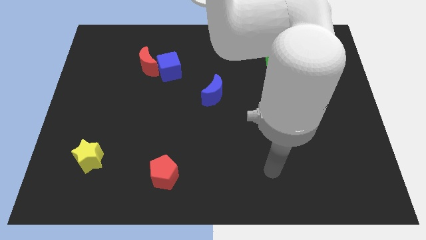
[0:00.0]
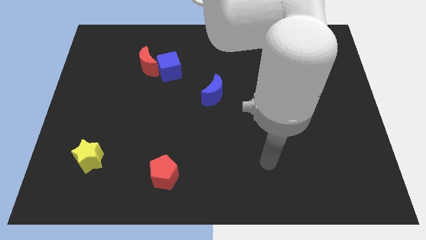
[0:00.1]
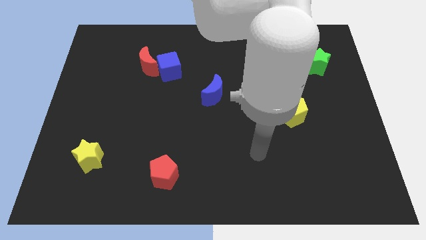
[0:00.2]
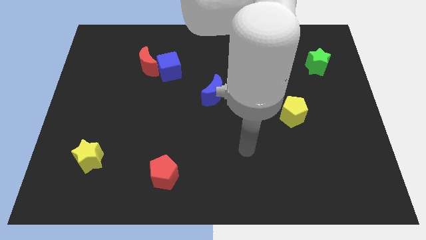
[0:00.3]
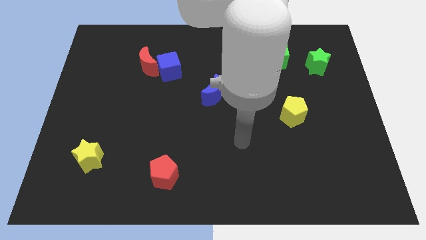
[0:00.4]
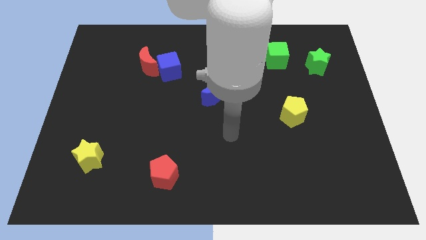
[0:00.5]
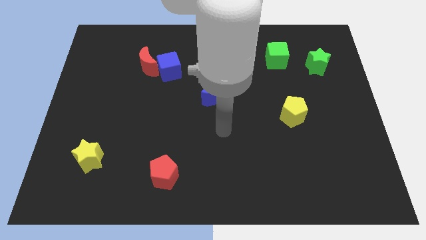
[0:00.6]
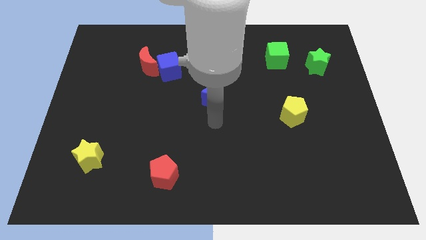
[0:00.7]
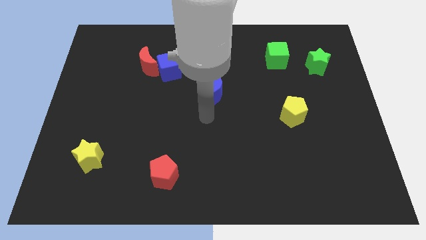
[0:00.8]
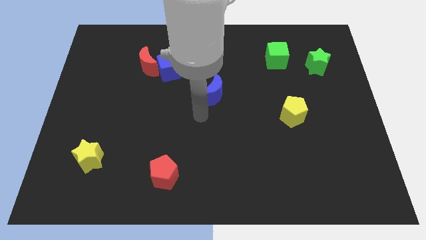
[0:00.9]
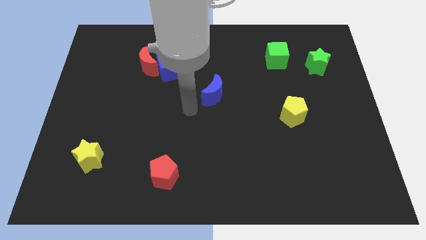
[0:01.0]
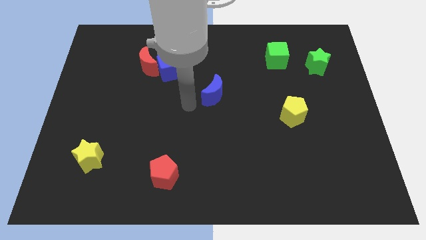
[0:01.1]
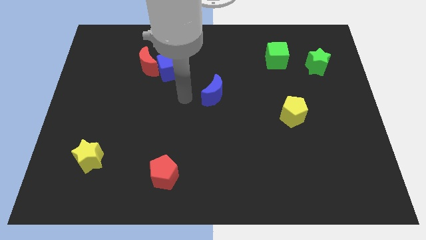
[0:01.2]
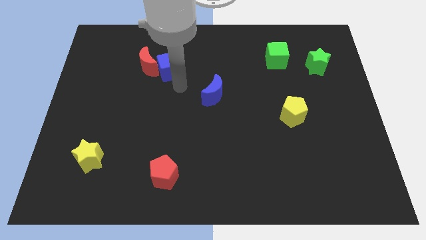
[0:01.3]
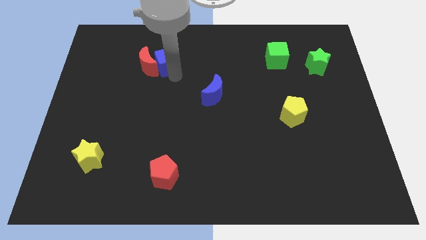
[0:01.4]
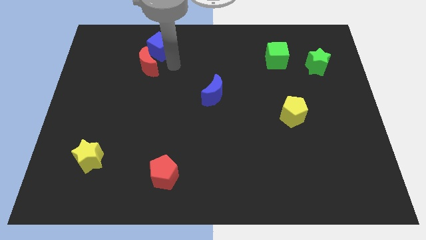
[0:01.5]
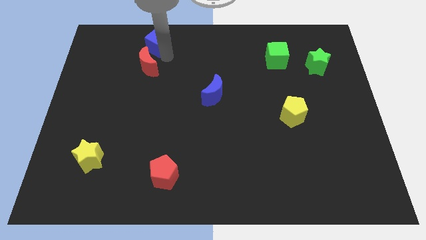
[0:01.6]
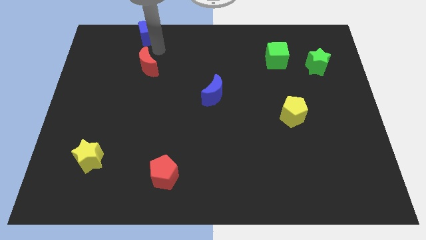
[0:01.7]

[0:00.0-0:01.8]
move the red moon away from the blue cube

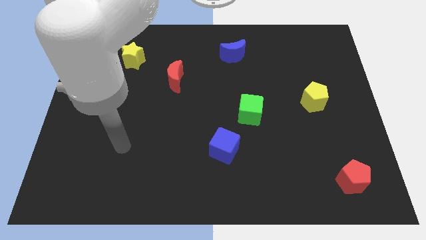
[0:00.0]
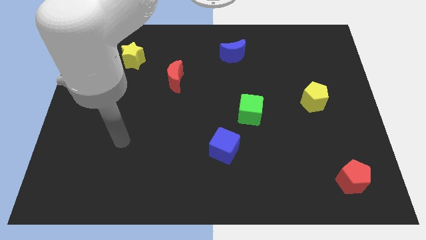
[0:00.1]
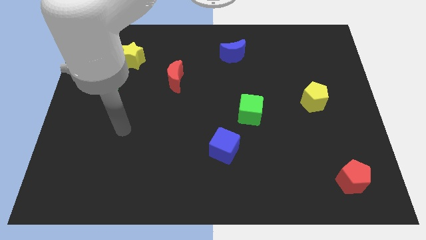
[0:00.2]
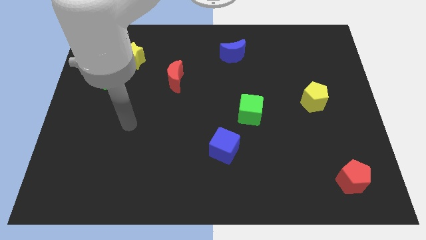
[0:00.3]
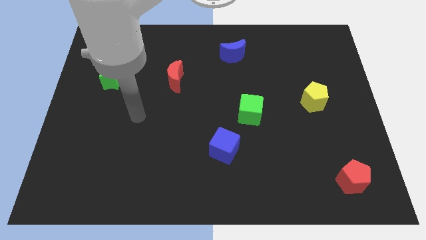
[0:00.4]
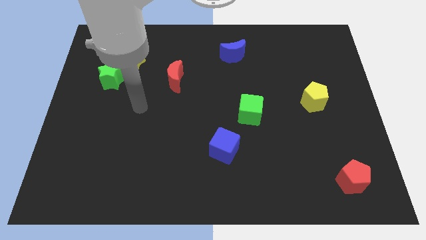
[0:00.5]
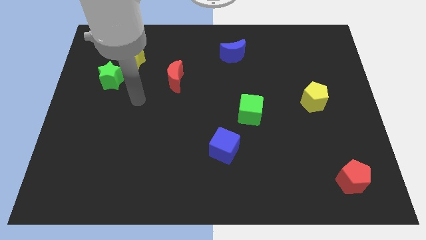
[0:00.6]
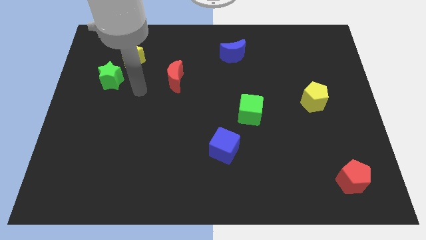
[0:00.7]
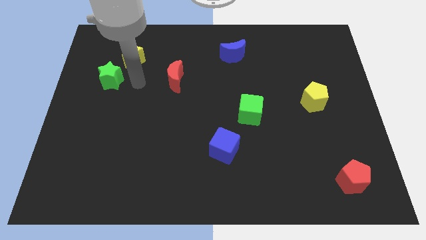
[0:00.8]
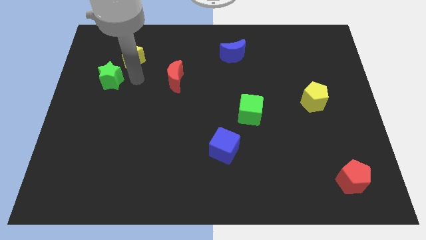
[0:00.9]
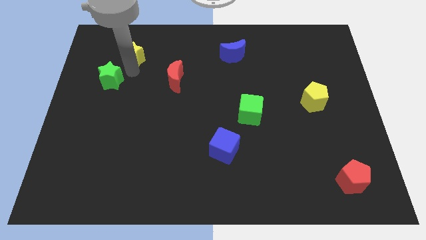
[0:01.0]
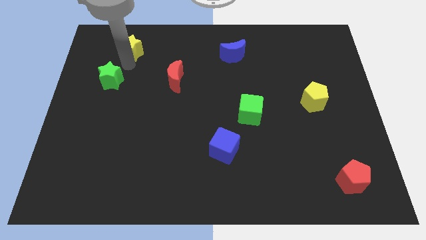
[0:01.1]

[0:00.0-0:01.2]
move the green star away from the yellow star

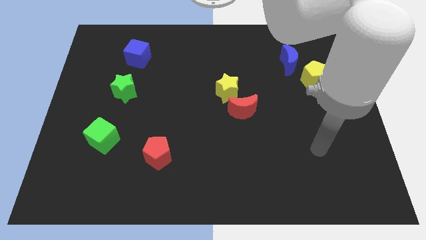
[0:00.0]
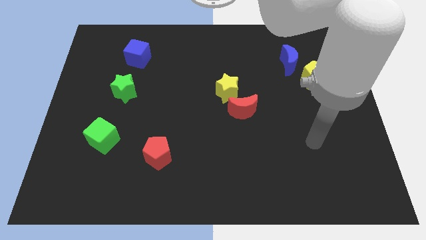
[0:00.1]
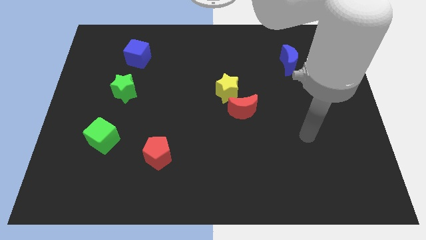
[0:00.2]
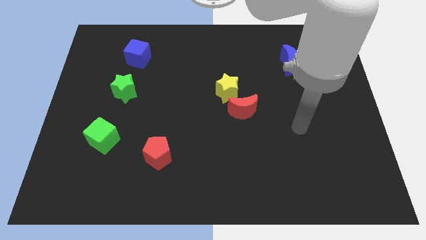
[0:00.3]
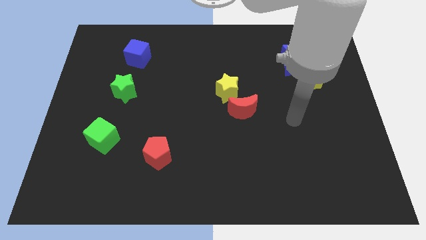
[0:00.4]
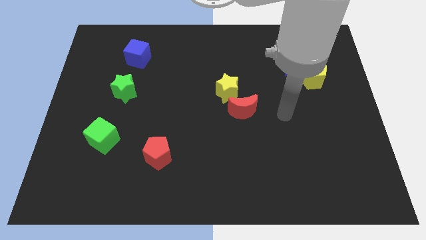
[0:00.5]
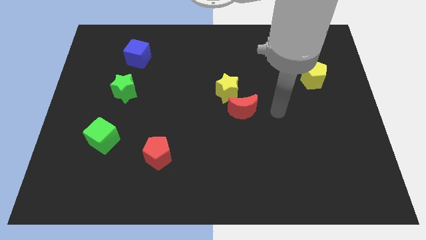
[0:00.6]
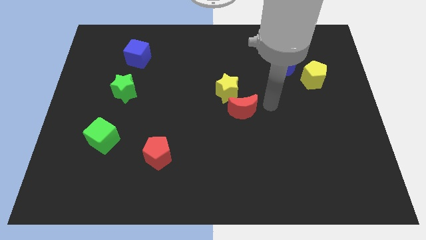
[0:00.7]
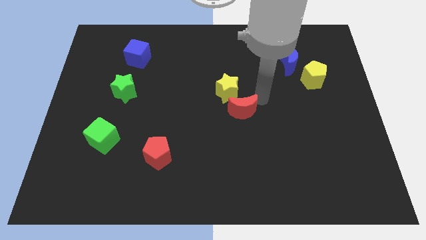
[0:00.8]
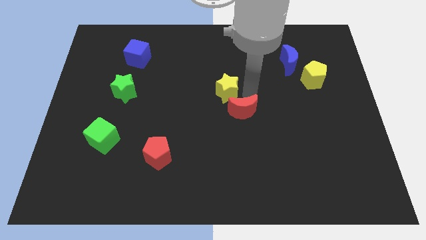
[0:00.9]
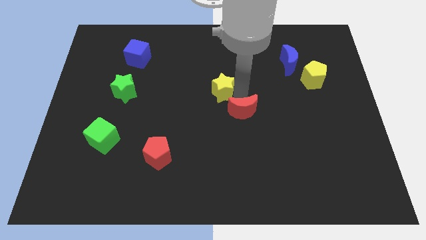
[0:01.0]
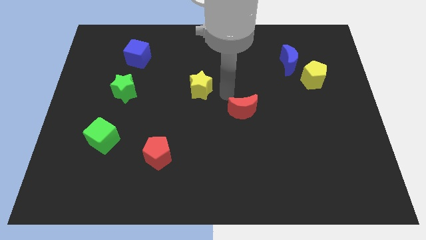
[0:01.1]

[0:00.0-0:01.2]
separate the red moon from the yellow star

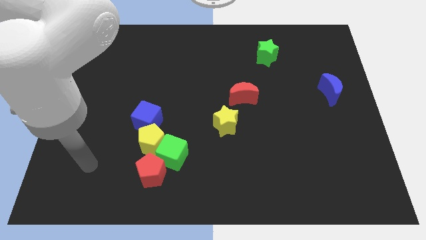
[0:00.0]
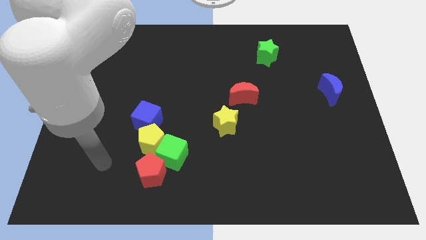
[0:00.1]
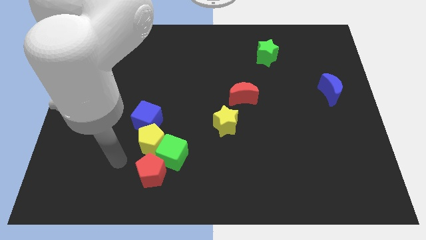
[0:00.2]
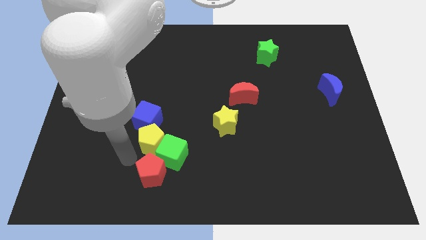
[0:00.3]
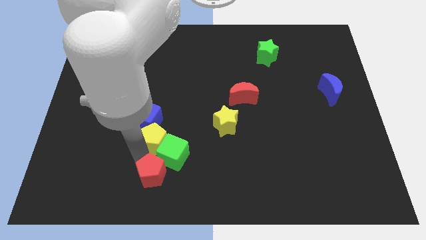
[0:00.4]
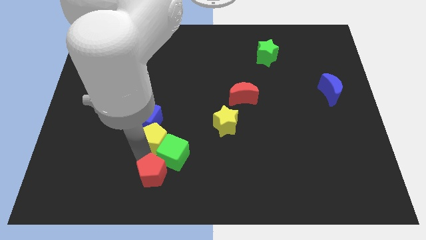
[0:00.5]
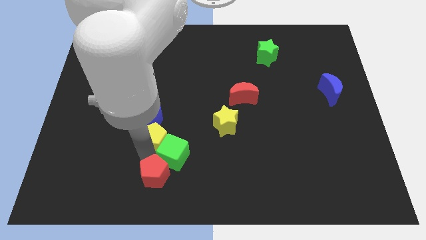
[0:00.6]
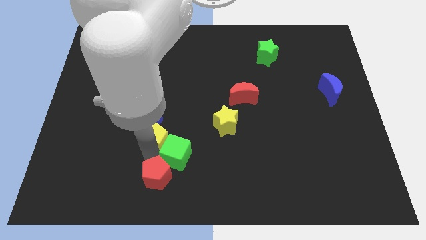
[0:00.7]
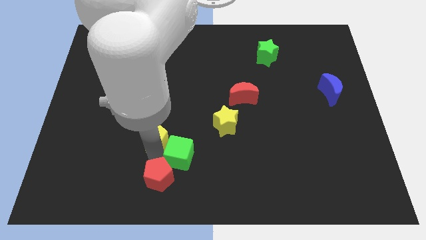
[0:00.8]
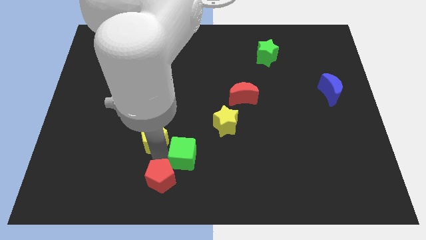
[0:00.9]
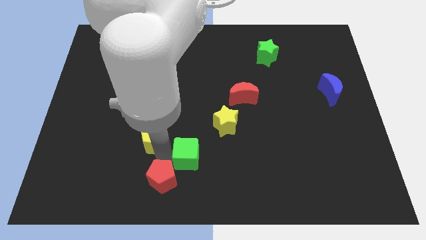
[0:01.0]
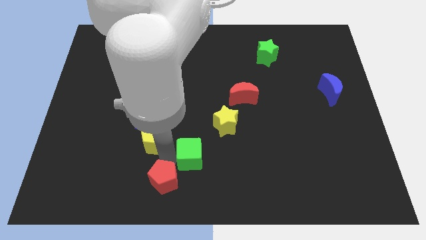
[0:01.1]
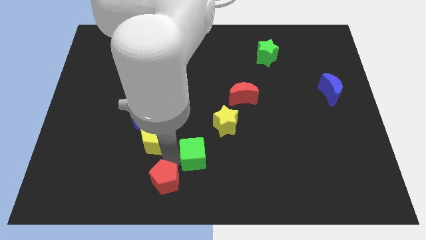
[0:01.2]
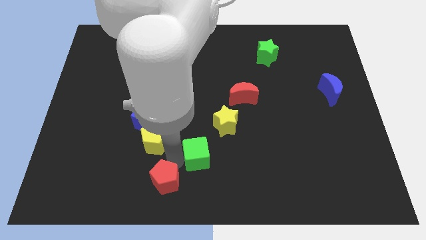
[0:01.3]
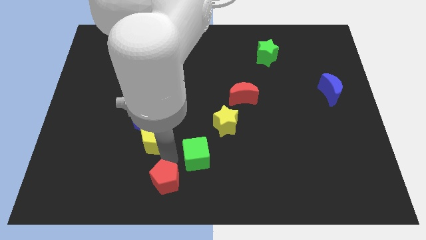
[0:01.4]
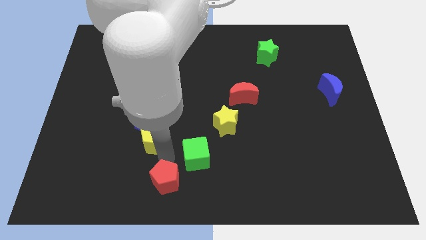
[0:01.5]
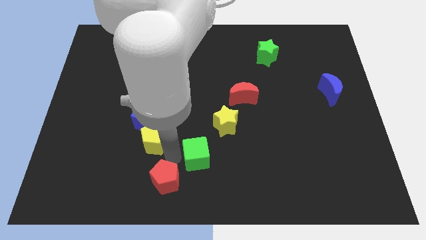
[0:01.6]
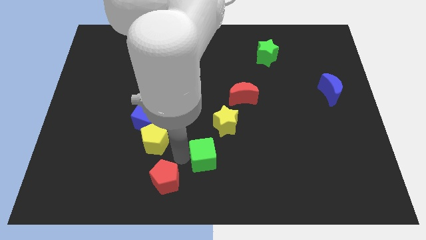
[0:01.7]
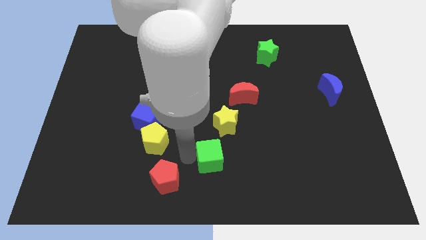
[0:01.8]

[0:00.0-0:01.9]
move the green cube away from the yellow pentagon and red pentagon

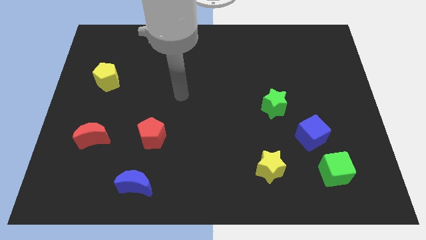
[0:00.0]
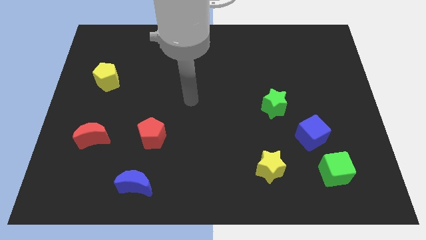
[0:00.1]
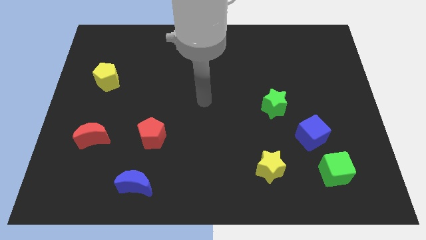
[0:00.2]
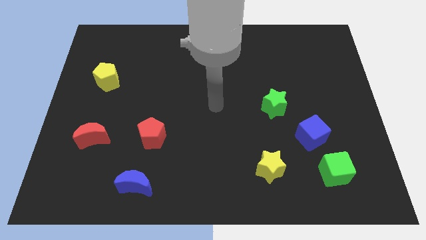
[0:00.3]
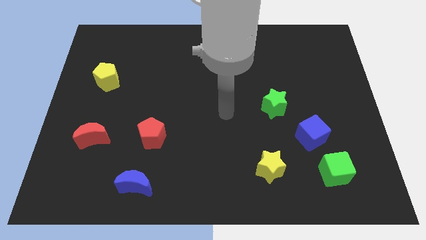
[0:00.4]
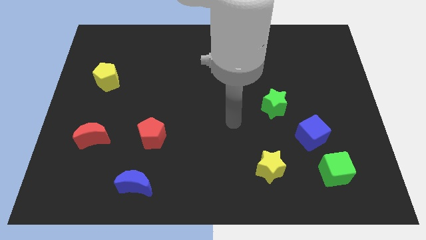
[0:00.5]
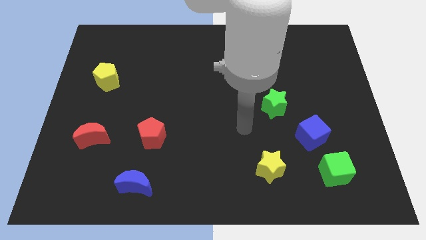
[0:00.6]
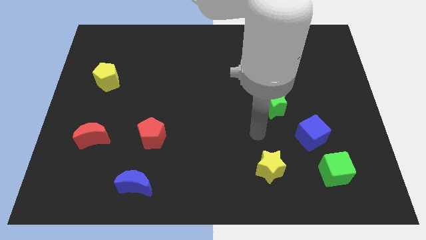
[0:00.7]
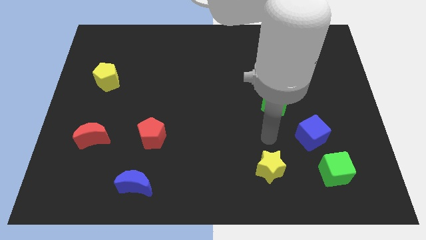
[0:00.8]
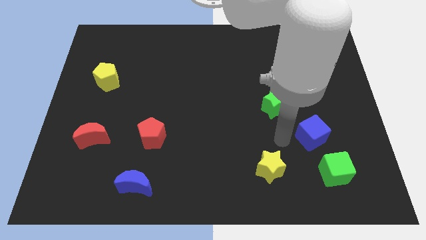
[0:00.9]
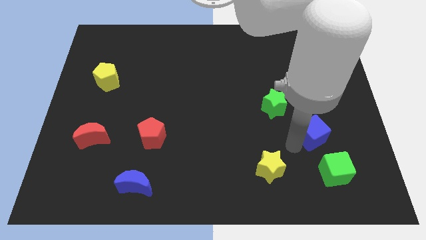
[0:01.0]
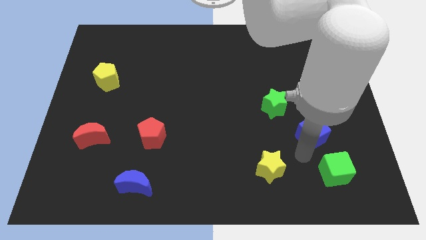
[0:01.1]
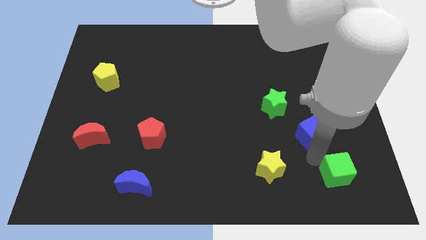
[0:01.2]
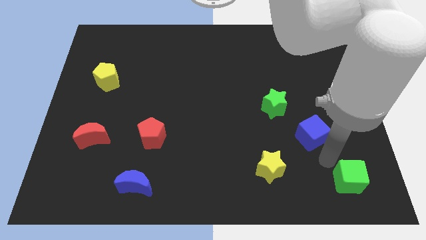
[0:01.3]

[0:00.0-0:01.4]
separate the blue cube from the green cube

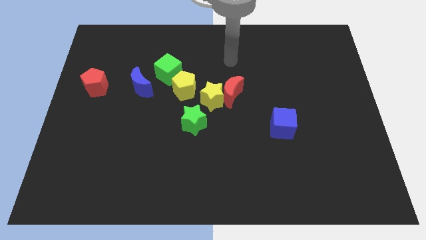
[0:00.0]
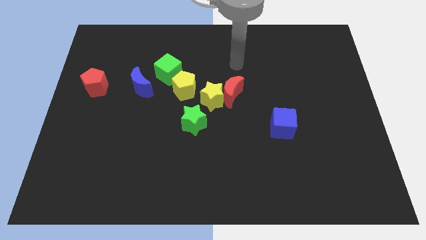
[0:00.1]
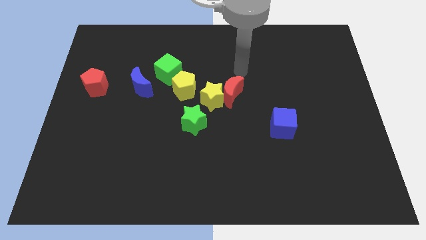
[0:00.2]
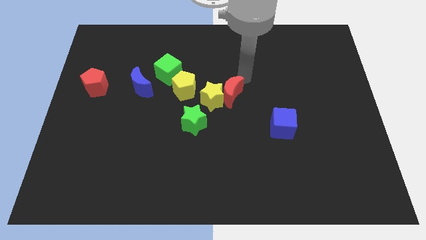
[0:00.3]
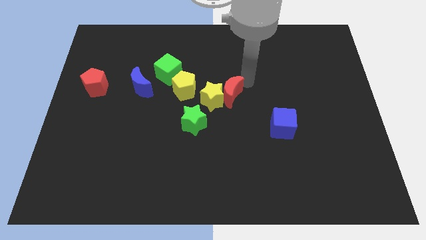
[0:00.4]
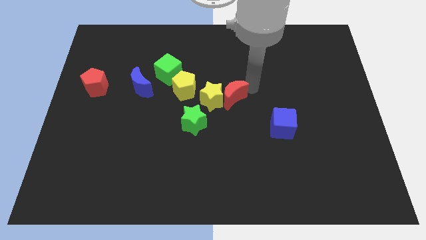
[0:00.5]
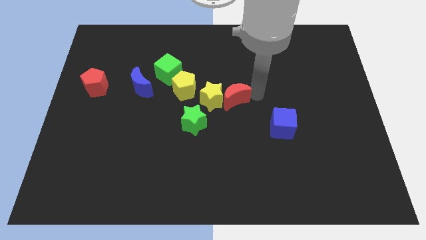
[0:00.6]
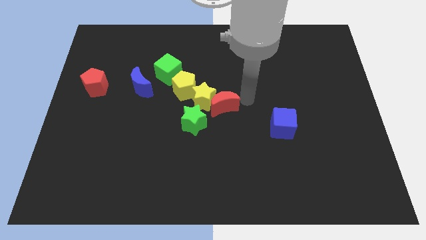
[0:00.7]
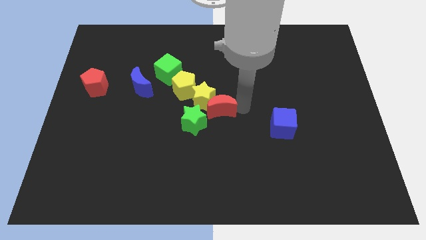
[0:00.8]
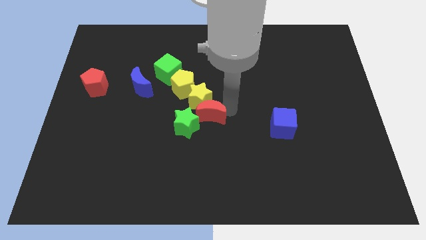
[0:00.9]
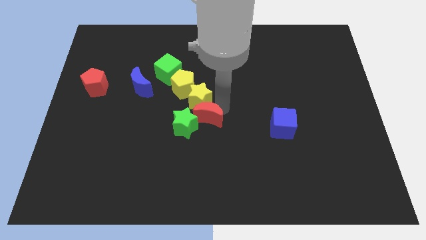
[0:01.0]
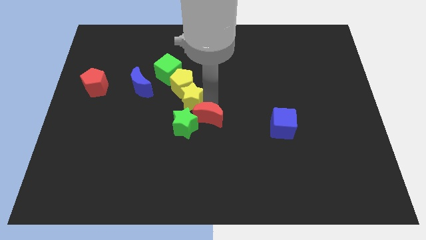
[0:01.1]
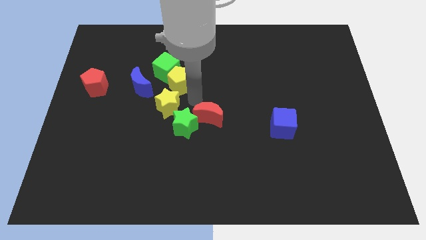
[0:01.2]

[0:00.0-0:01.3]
pull the red moon apart from the yellow star

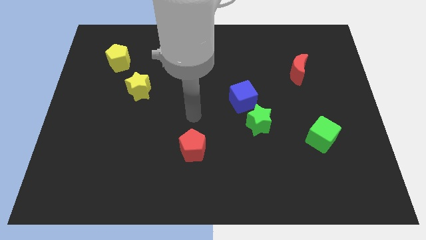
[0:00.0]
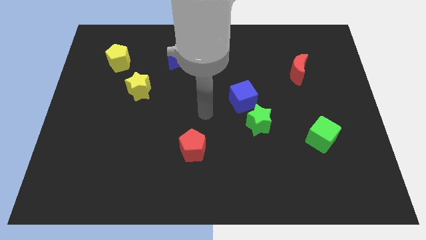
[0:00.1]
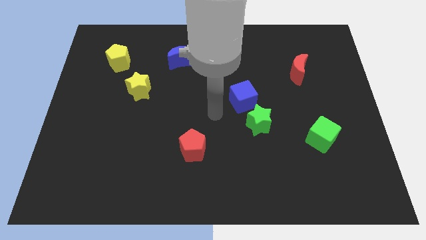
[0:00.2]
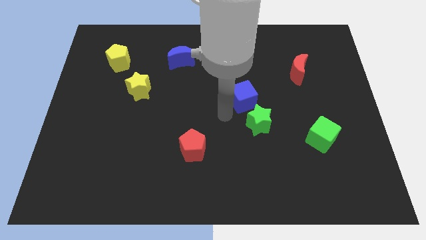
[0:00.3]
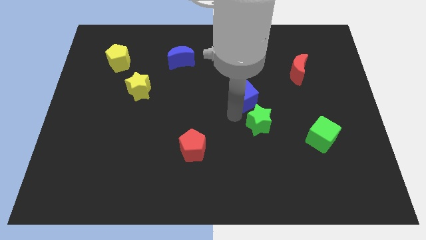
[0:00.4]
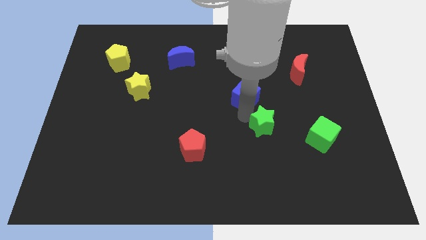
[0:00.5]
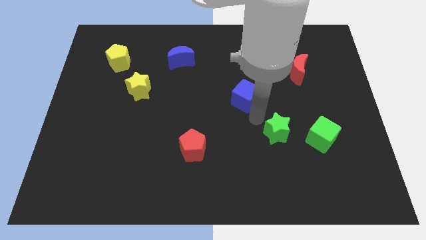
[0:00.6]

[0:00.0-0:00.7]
pull the blue cube apart from the green star
